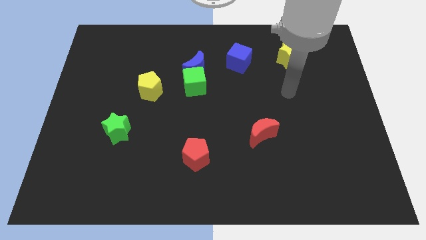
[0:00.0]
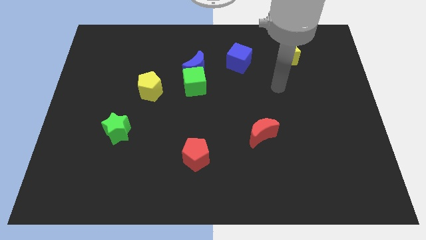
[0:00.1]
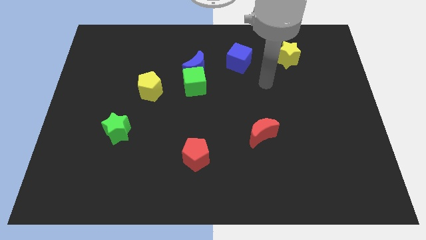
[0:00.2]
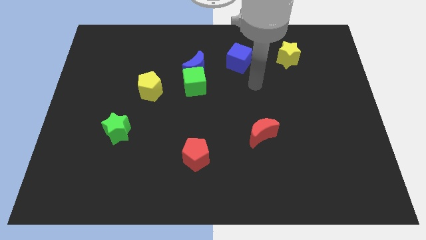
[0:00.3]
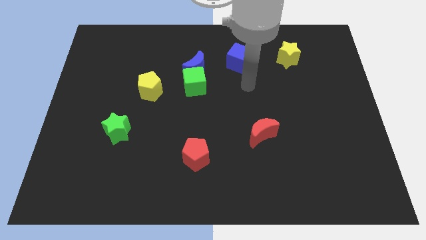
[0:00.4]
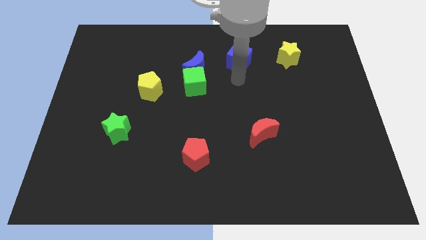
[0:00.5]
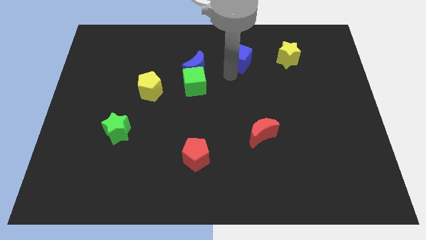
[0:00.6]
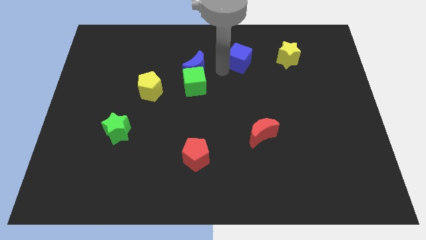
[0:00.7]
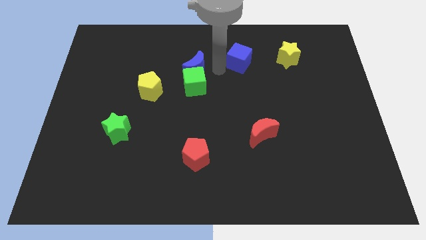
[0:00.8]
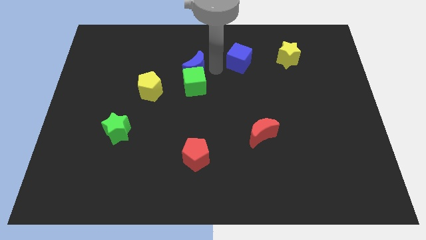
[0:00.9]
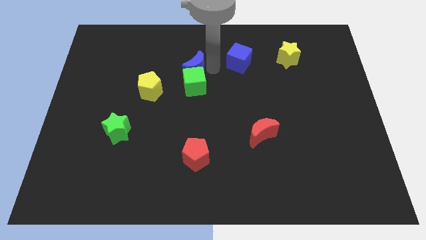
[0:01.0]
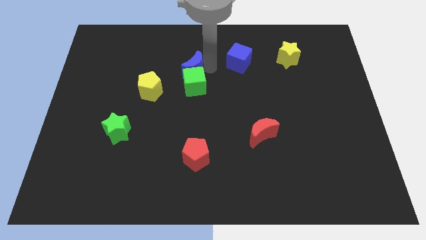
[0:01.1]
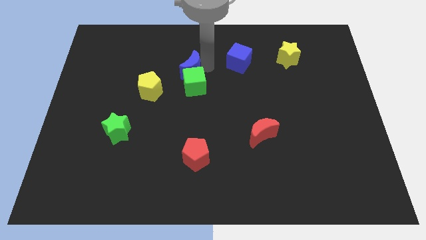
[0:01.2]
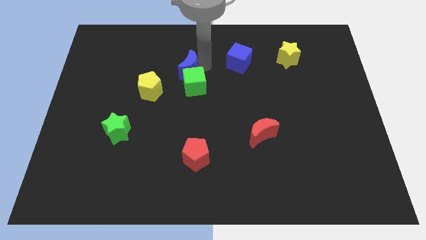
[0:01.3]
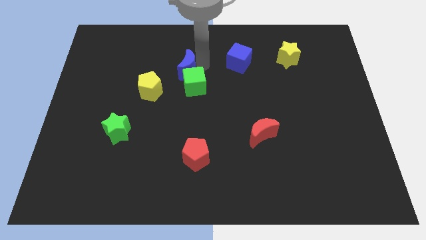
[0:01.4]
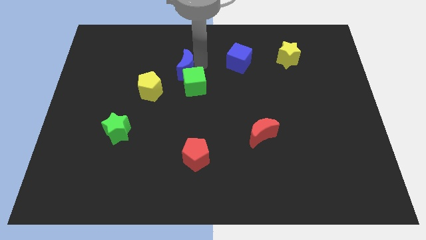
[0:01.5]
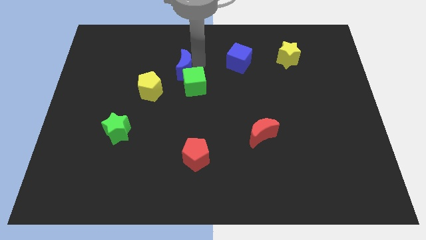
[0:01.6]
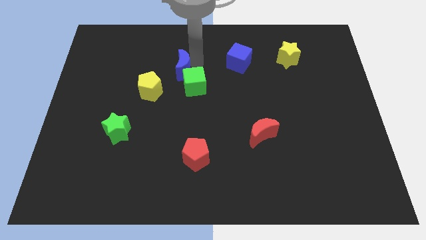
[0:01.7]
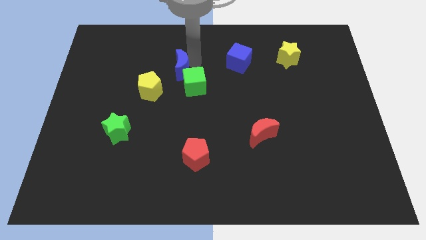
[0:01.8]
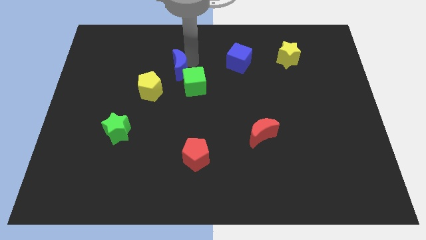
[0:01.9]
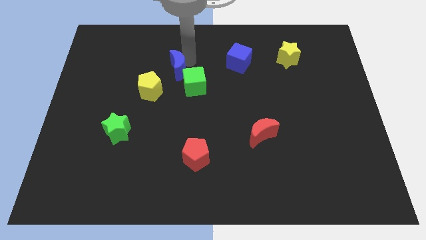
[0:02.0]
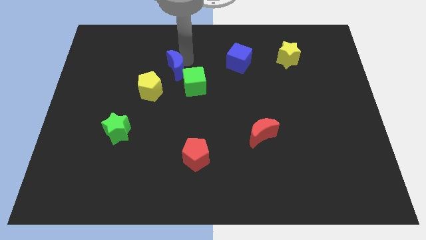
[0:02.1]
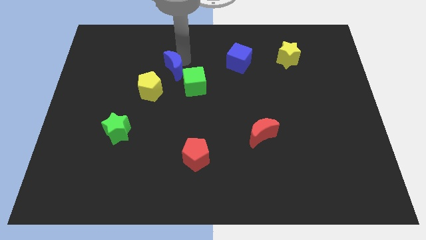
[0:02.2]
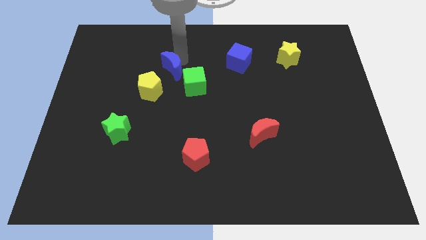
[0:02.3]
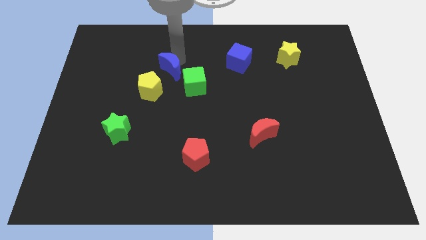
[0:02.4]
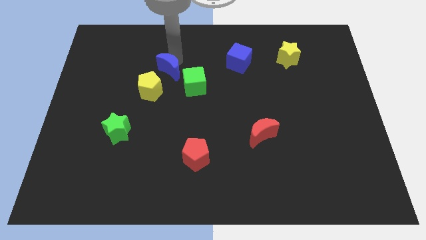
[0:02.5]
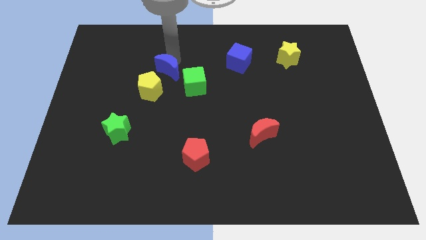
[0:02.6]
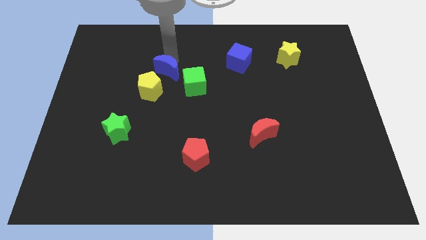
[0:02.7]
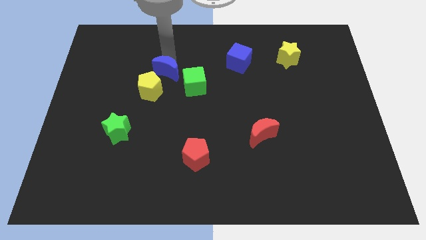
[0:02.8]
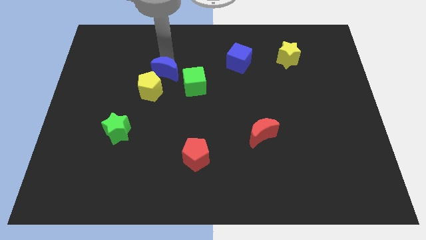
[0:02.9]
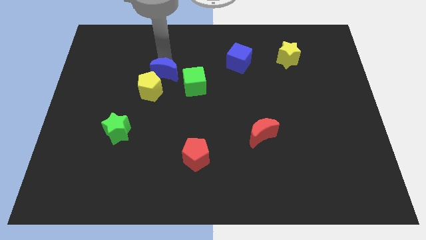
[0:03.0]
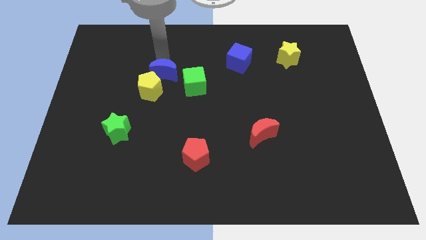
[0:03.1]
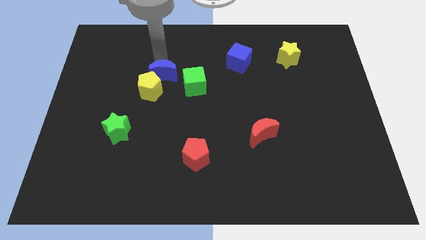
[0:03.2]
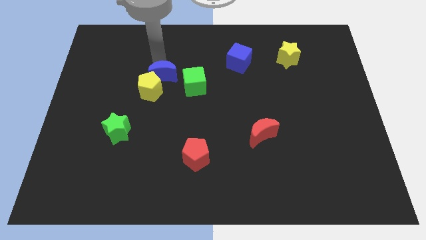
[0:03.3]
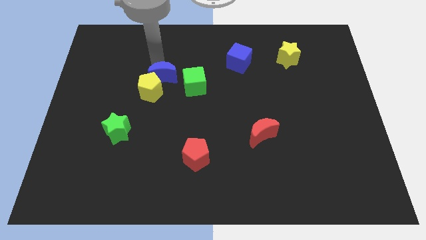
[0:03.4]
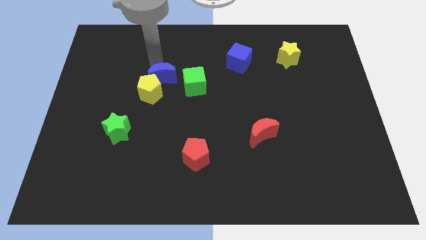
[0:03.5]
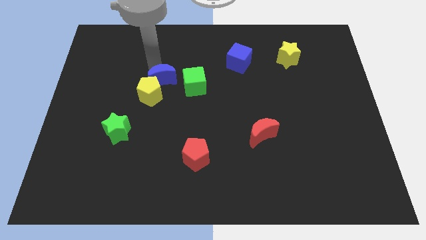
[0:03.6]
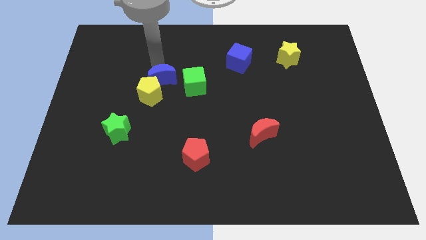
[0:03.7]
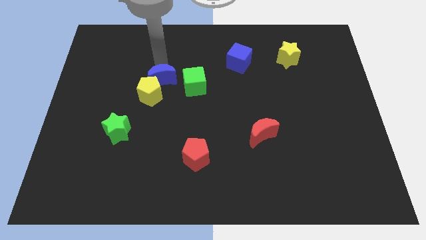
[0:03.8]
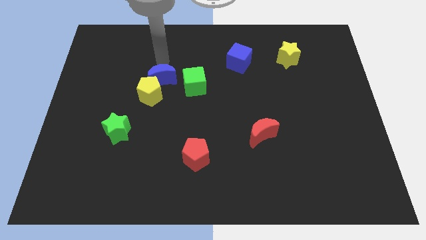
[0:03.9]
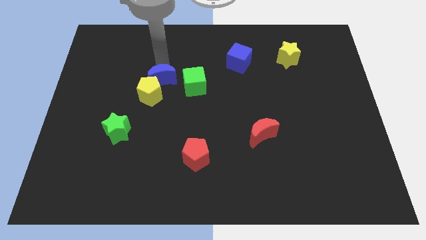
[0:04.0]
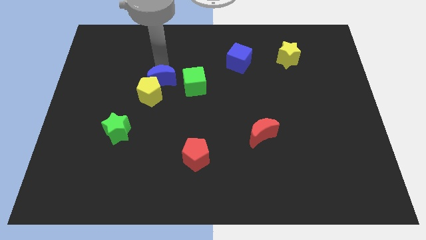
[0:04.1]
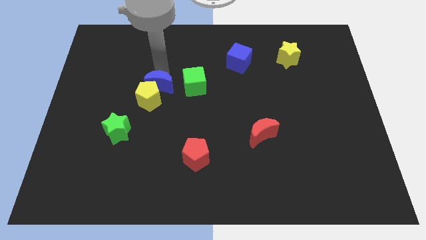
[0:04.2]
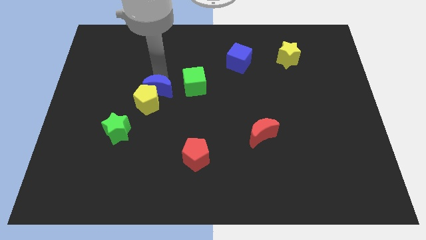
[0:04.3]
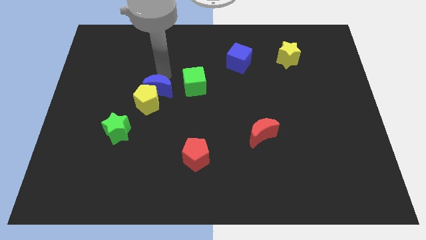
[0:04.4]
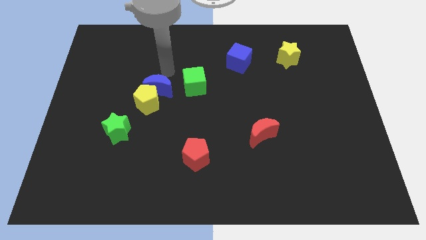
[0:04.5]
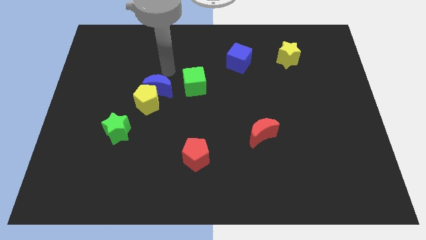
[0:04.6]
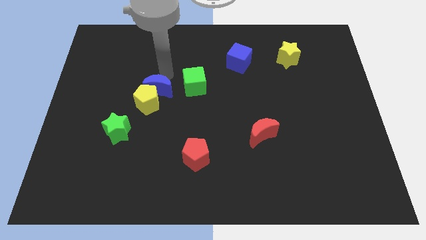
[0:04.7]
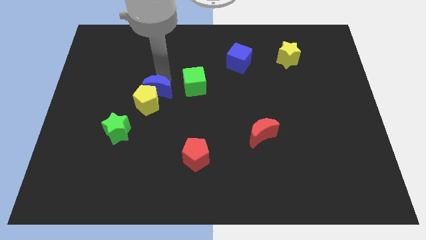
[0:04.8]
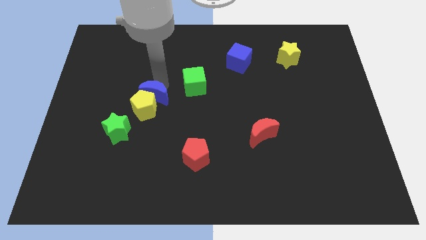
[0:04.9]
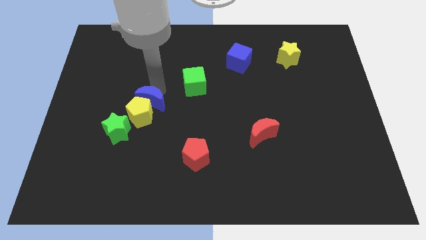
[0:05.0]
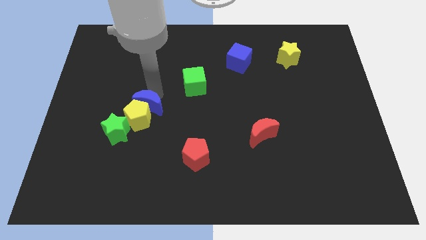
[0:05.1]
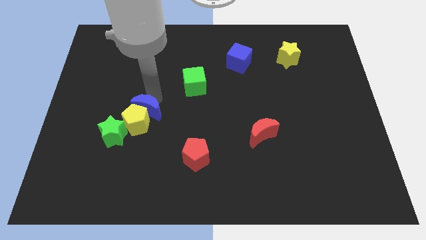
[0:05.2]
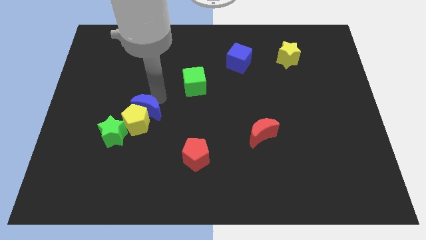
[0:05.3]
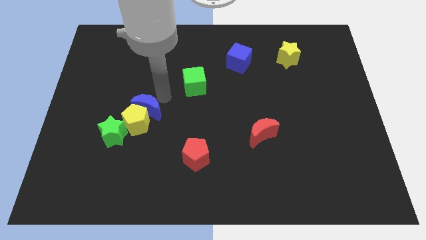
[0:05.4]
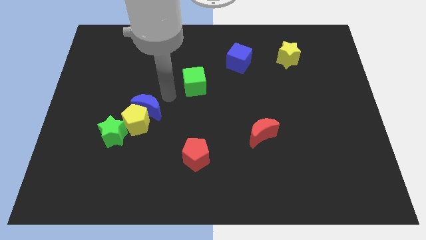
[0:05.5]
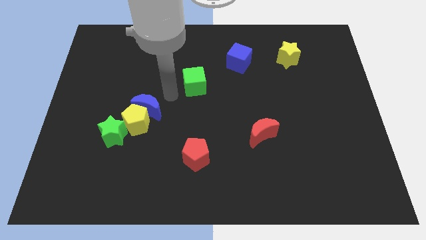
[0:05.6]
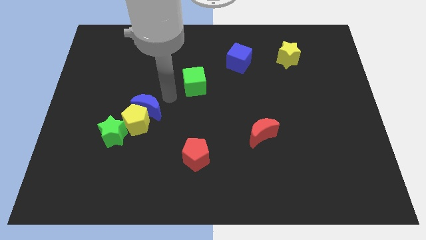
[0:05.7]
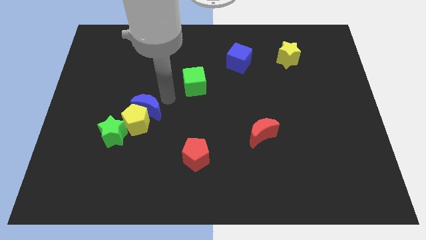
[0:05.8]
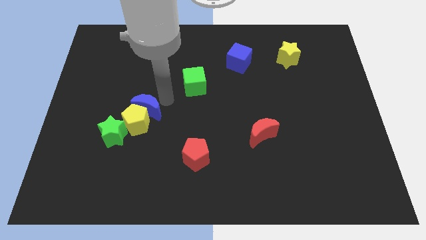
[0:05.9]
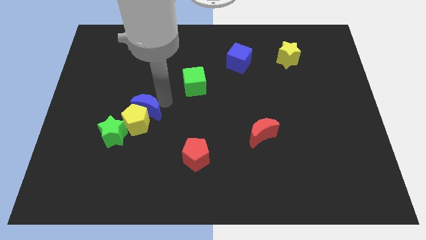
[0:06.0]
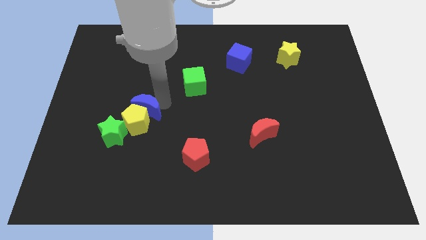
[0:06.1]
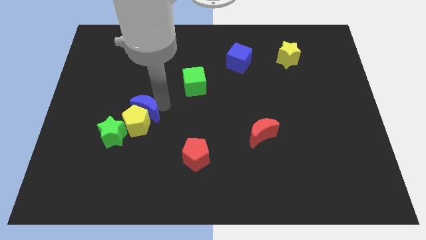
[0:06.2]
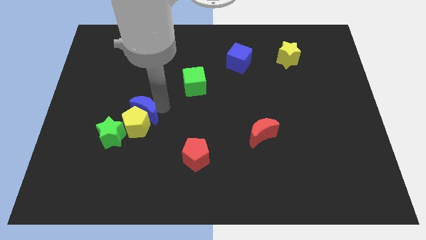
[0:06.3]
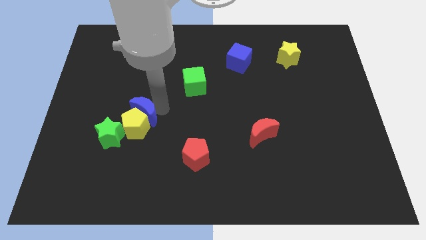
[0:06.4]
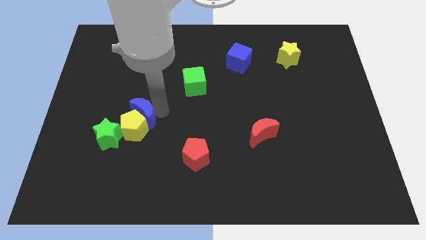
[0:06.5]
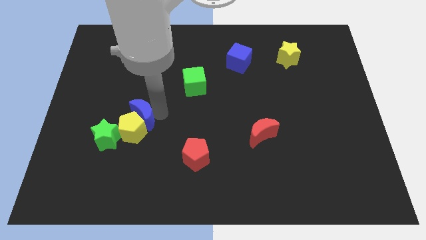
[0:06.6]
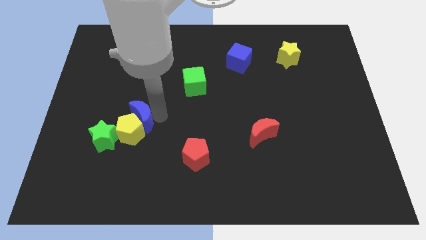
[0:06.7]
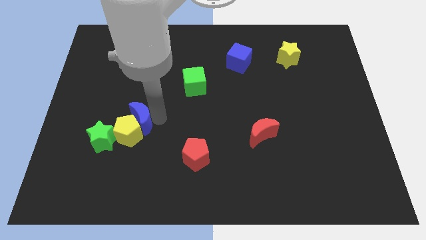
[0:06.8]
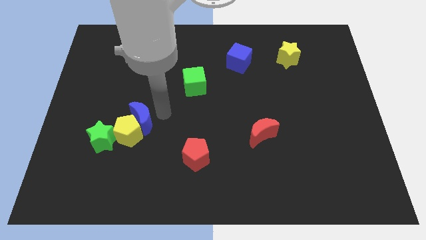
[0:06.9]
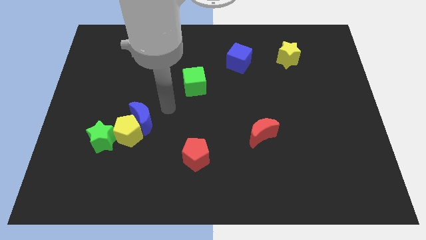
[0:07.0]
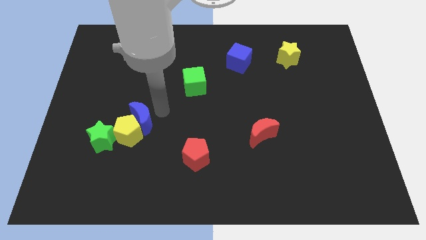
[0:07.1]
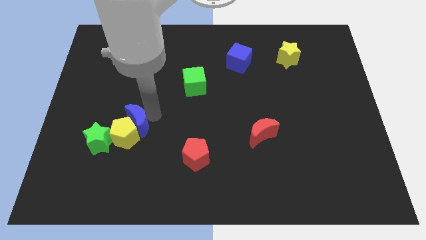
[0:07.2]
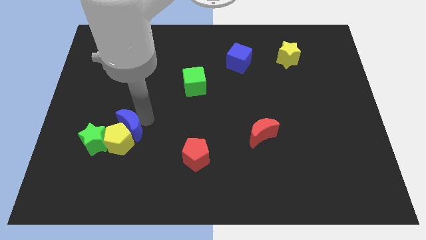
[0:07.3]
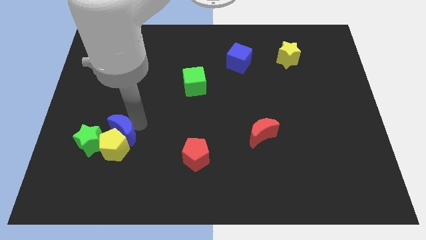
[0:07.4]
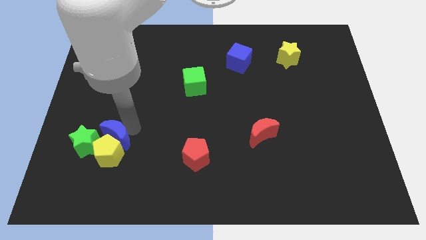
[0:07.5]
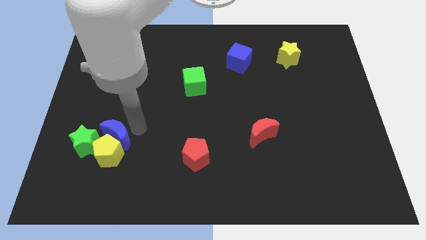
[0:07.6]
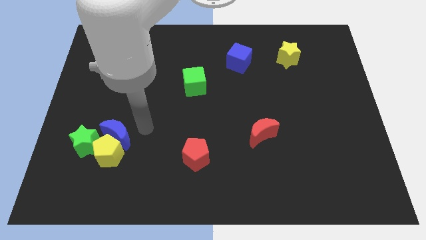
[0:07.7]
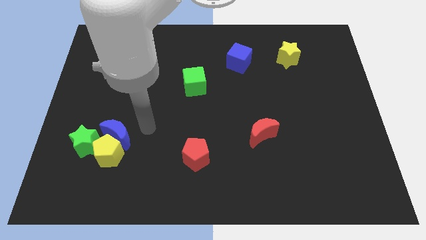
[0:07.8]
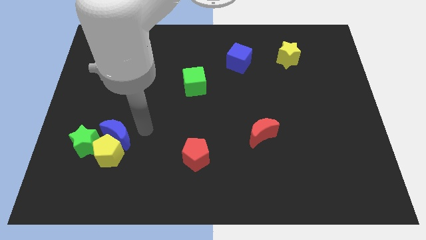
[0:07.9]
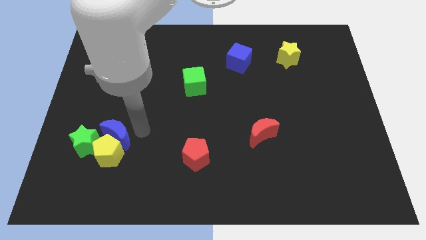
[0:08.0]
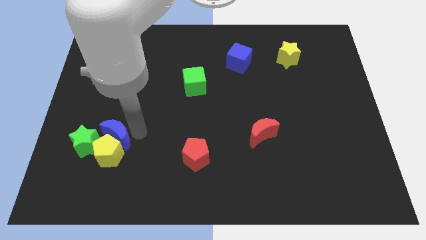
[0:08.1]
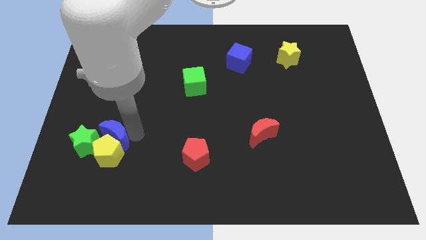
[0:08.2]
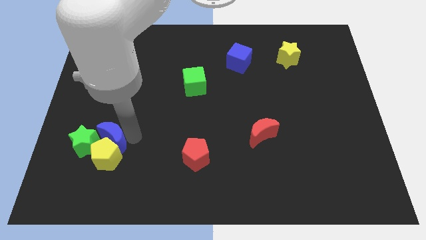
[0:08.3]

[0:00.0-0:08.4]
move the blue moon towards the green star
